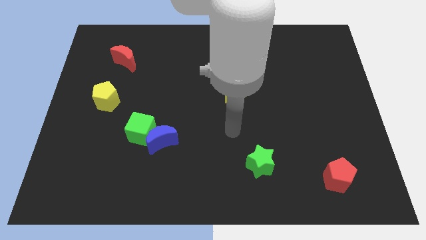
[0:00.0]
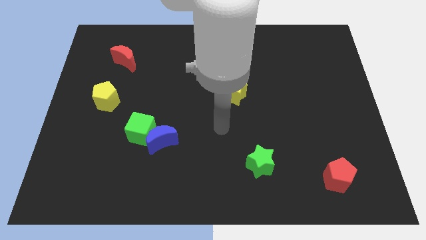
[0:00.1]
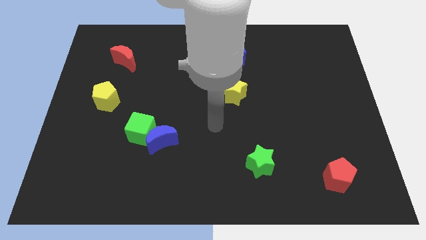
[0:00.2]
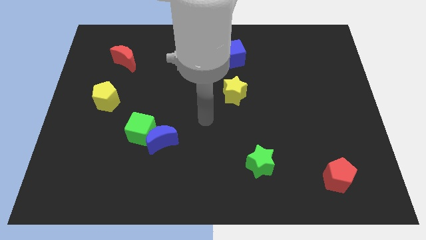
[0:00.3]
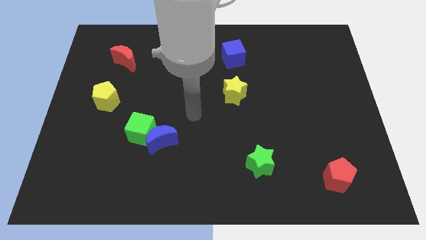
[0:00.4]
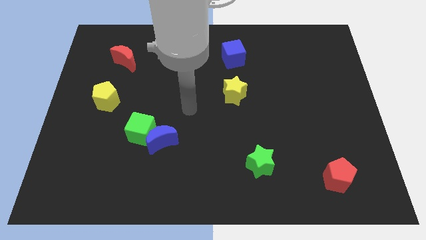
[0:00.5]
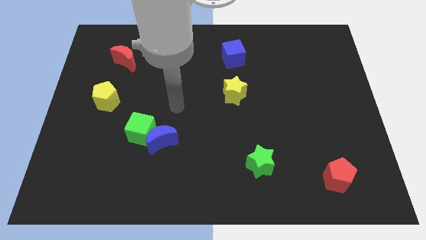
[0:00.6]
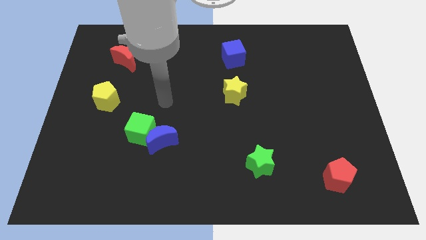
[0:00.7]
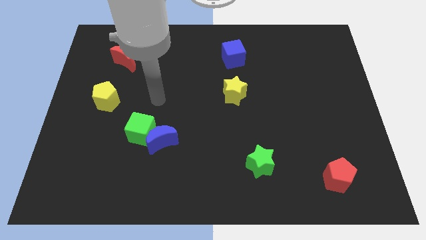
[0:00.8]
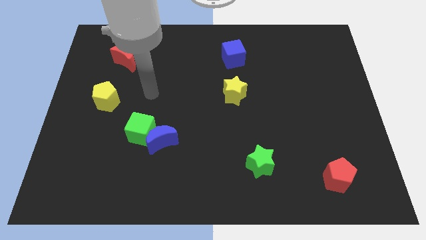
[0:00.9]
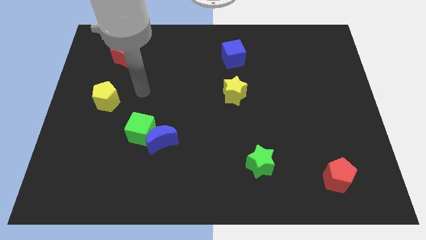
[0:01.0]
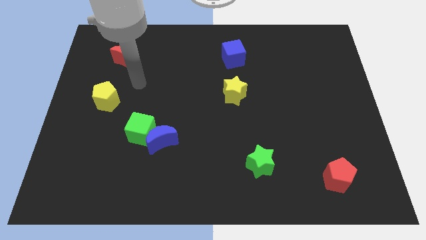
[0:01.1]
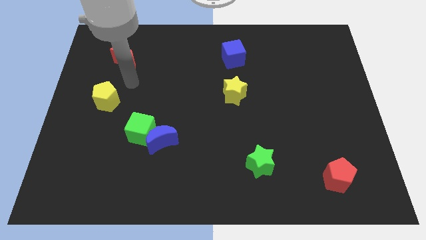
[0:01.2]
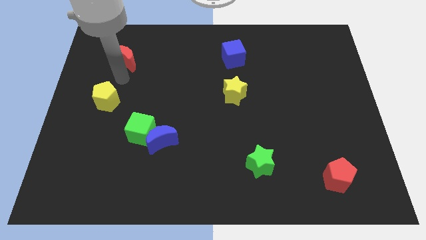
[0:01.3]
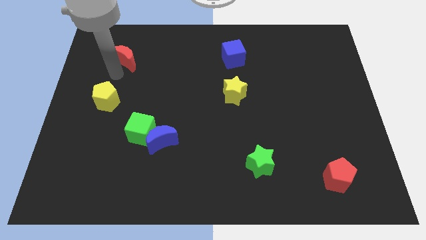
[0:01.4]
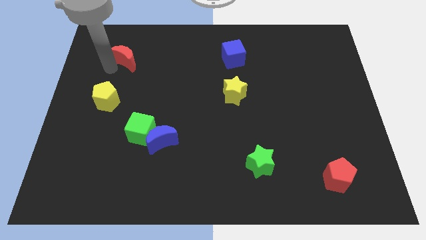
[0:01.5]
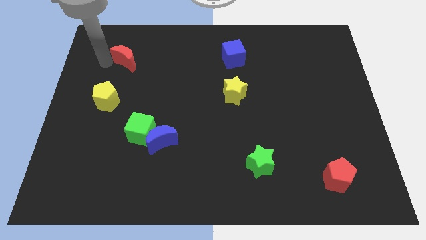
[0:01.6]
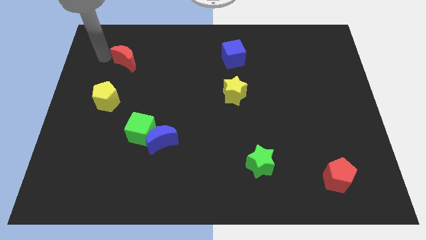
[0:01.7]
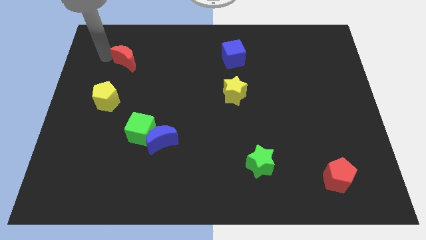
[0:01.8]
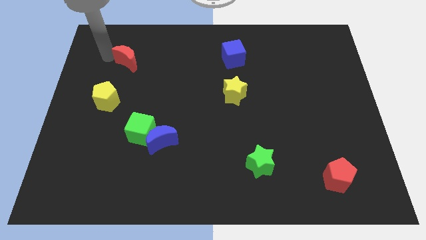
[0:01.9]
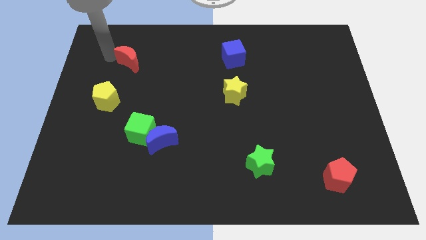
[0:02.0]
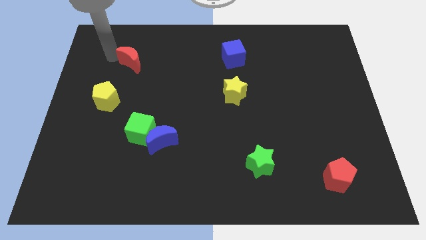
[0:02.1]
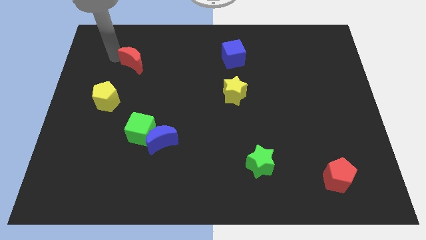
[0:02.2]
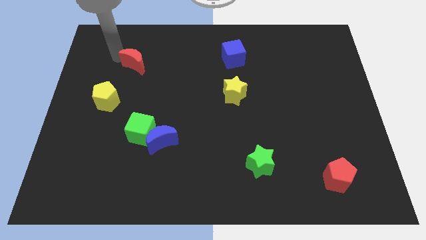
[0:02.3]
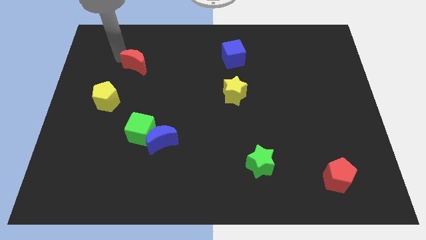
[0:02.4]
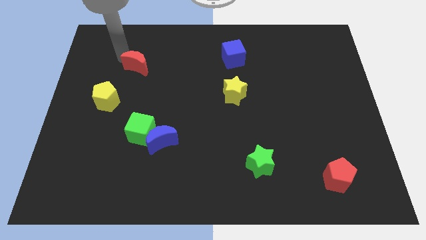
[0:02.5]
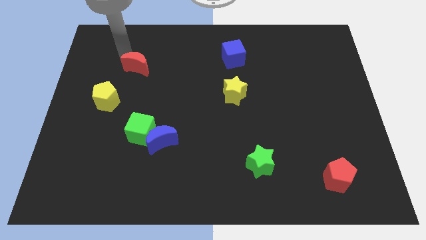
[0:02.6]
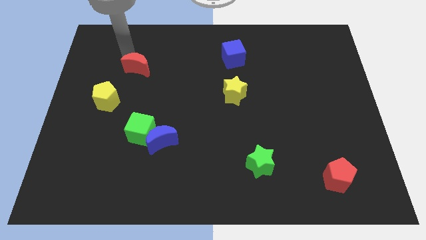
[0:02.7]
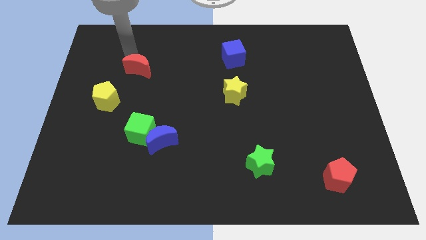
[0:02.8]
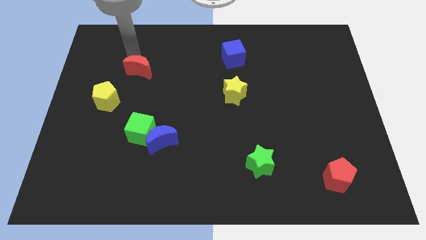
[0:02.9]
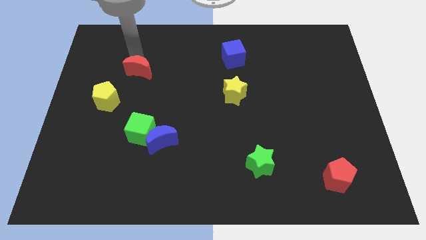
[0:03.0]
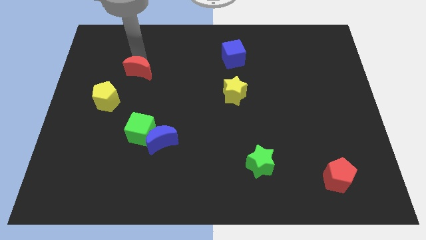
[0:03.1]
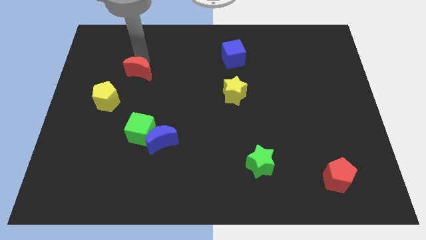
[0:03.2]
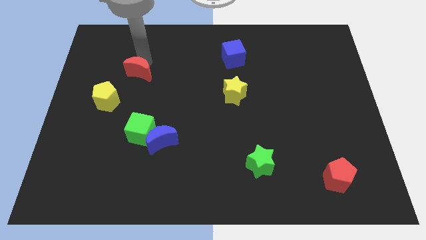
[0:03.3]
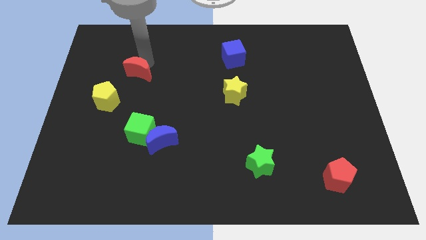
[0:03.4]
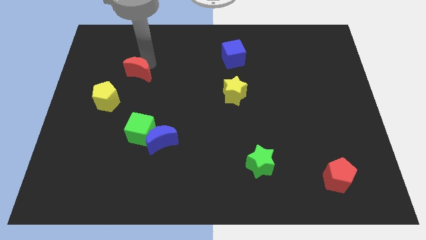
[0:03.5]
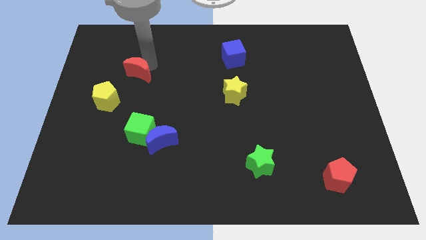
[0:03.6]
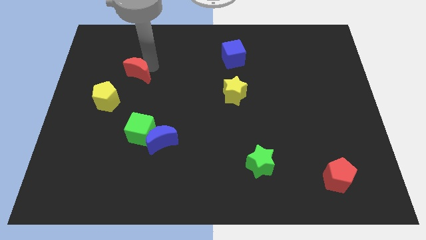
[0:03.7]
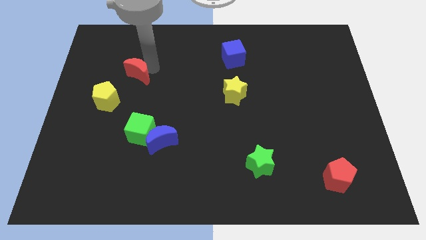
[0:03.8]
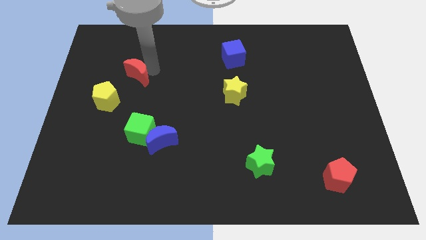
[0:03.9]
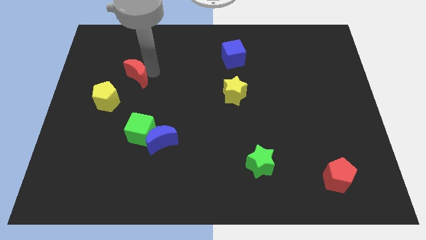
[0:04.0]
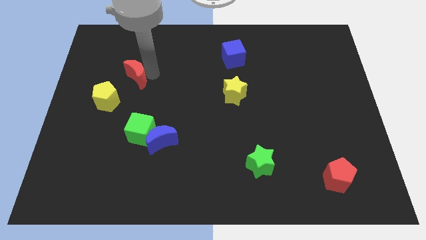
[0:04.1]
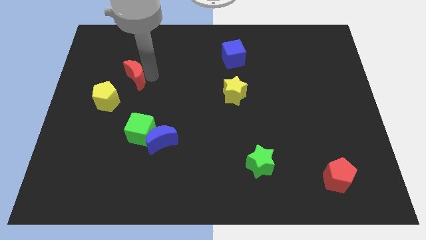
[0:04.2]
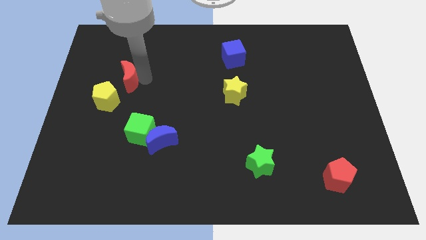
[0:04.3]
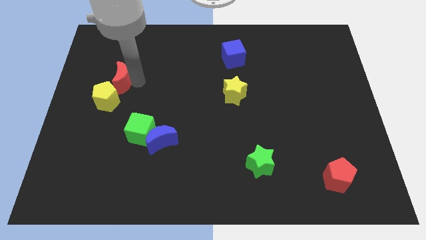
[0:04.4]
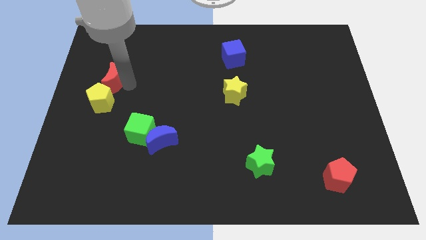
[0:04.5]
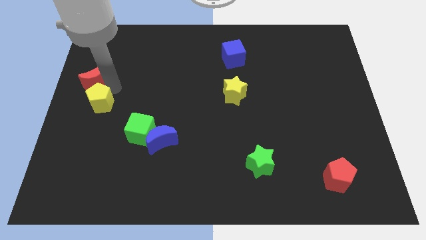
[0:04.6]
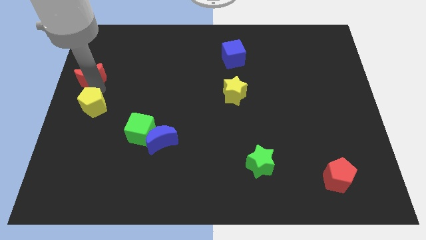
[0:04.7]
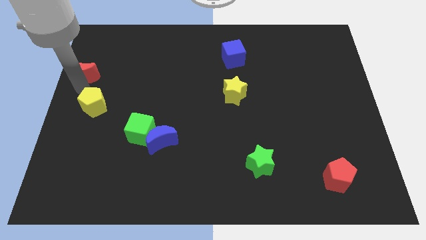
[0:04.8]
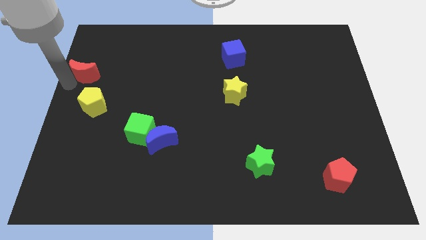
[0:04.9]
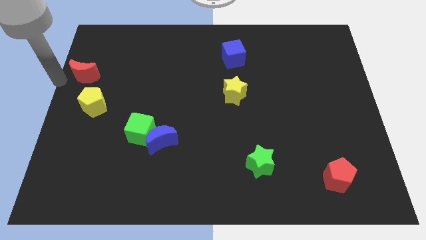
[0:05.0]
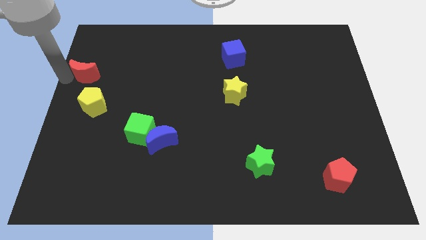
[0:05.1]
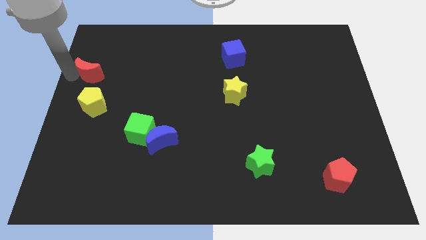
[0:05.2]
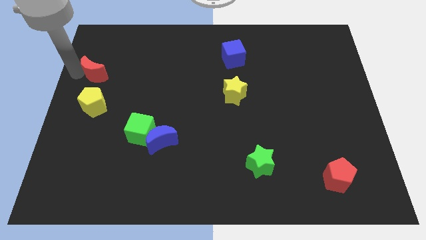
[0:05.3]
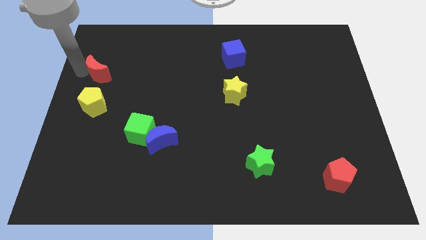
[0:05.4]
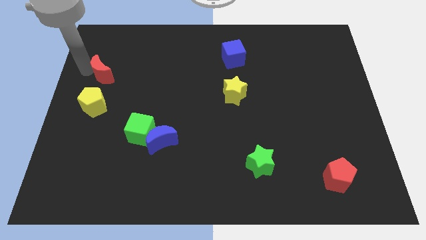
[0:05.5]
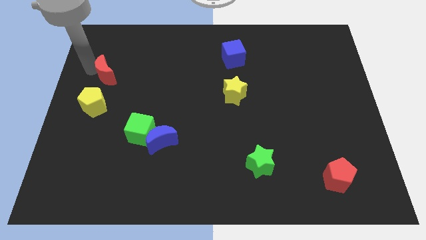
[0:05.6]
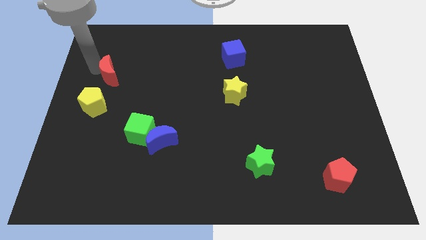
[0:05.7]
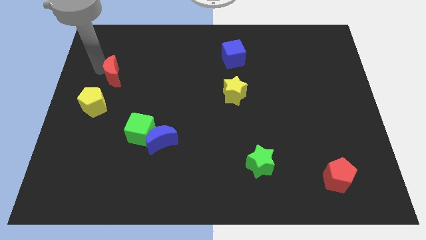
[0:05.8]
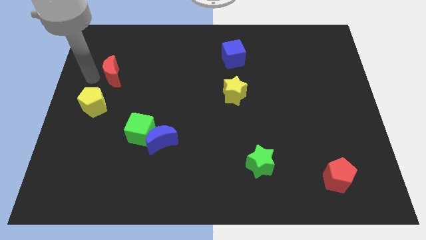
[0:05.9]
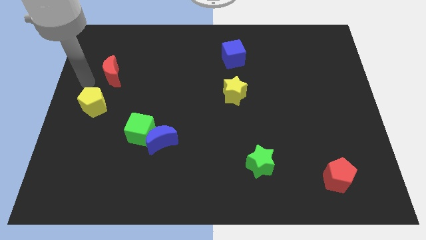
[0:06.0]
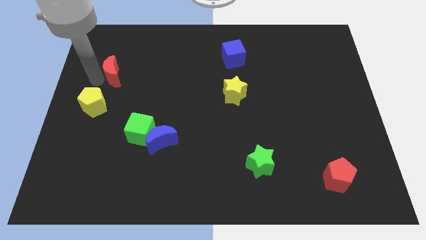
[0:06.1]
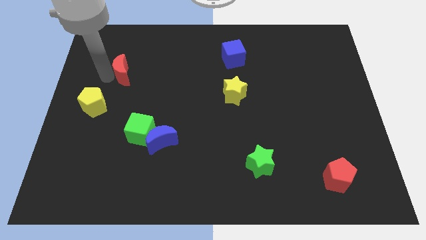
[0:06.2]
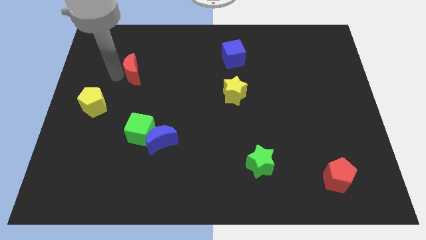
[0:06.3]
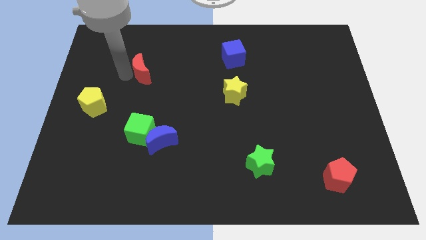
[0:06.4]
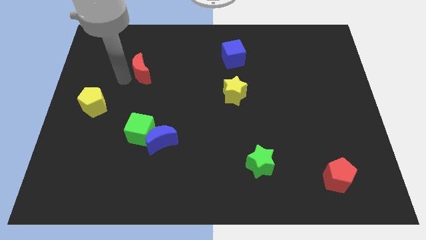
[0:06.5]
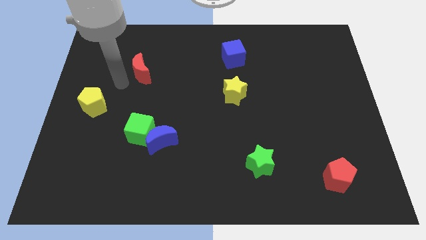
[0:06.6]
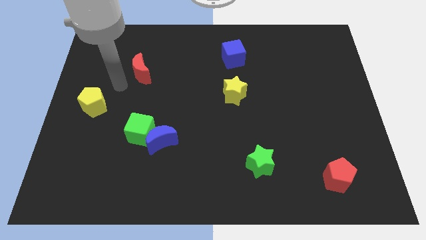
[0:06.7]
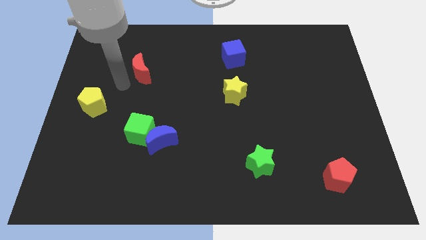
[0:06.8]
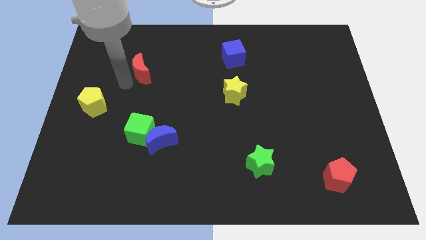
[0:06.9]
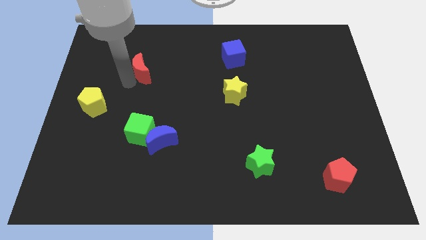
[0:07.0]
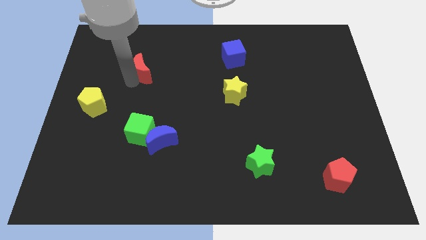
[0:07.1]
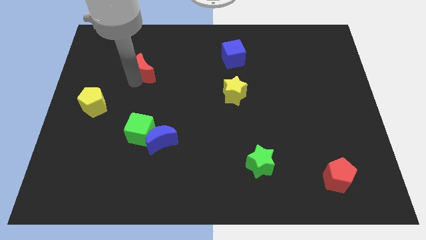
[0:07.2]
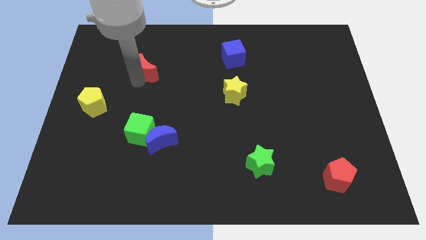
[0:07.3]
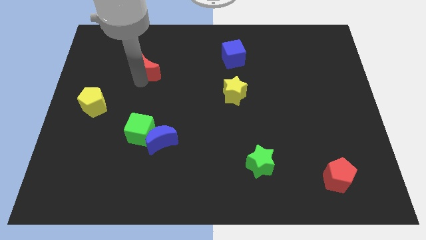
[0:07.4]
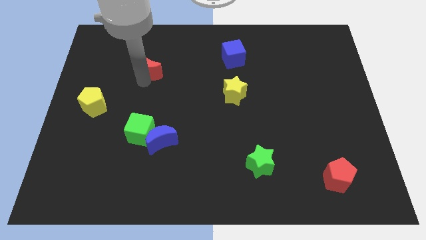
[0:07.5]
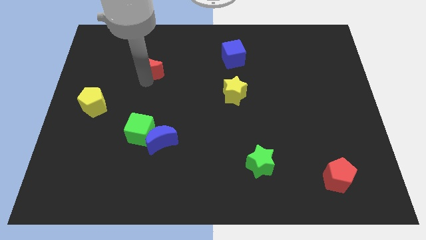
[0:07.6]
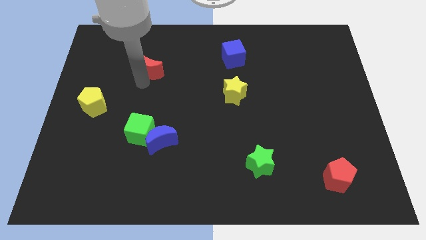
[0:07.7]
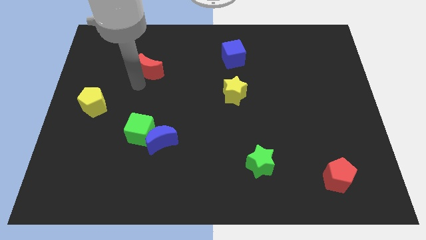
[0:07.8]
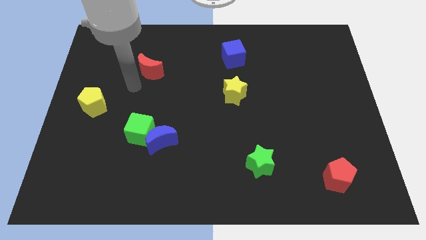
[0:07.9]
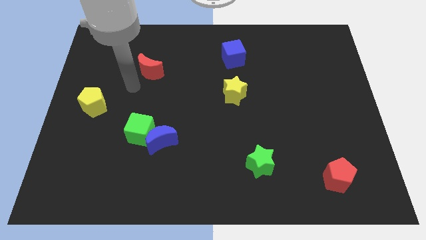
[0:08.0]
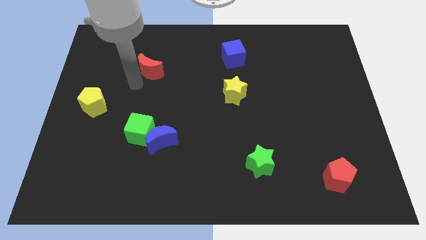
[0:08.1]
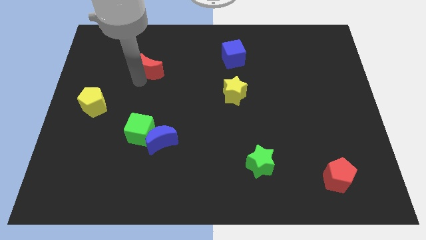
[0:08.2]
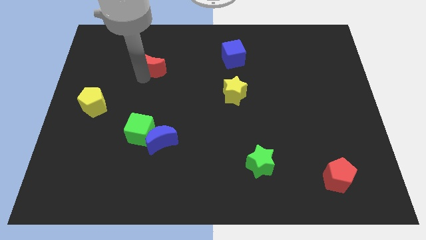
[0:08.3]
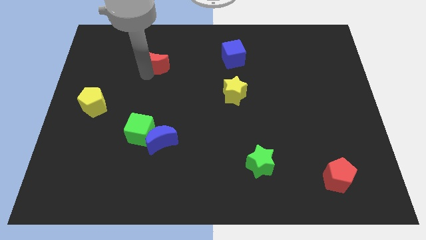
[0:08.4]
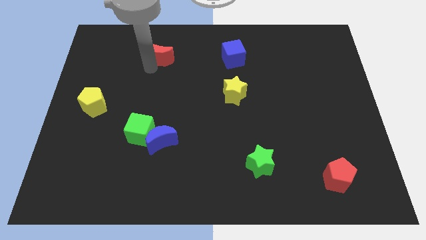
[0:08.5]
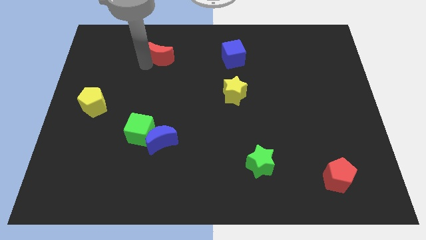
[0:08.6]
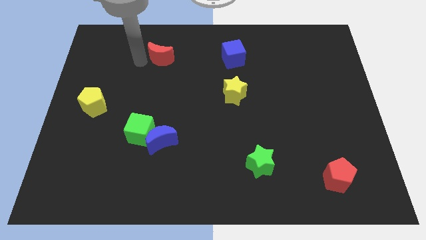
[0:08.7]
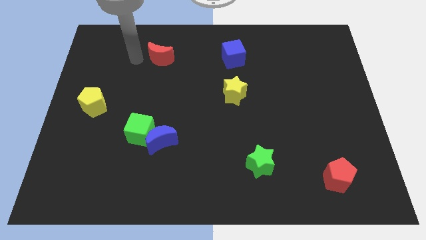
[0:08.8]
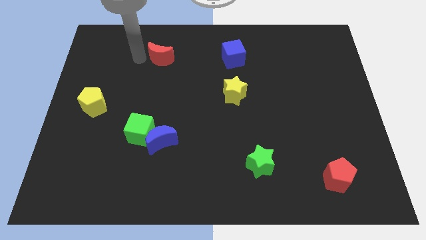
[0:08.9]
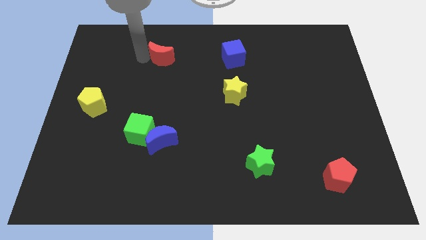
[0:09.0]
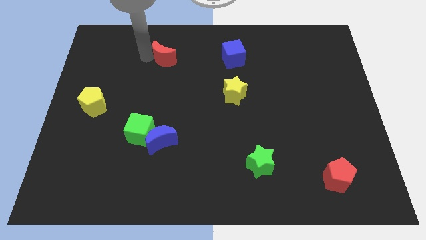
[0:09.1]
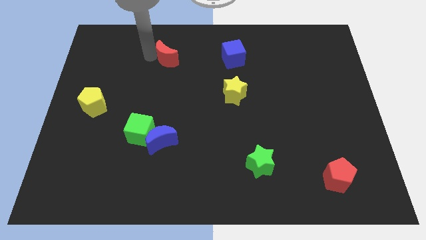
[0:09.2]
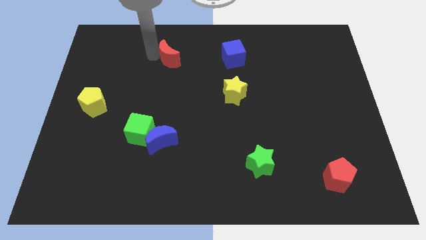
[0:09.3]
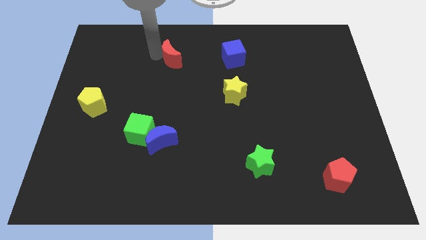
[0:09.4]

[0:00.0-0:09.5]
put the red moon to the left of the blue cube
